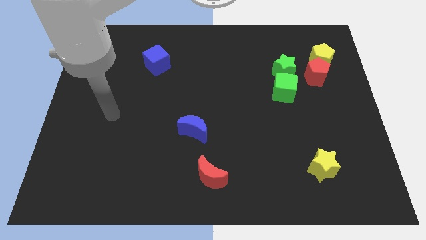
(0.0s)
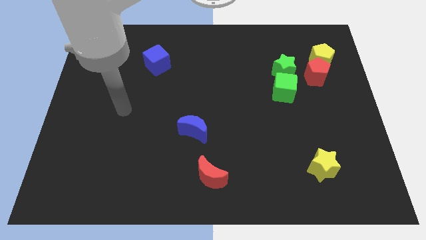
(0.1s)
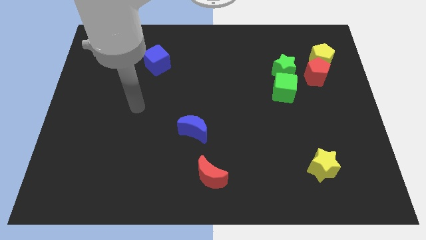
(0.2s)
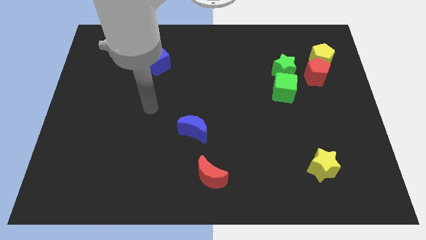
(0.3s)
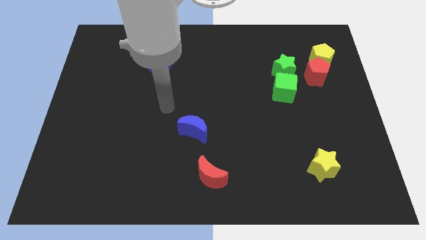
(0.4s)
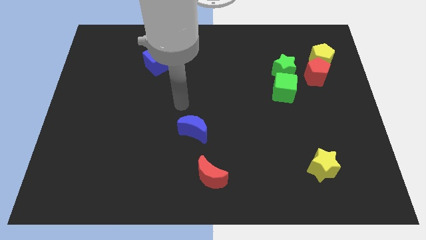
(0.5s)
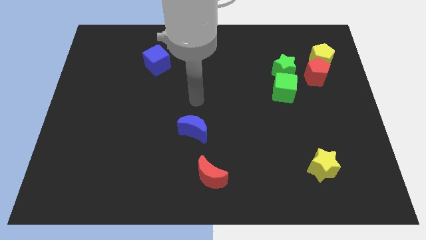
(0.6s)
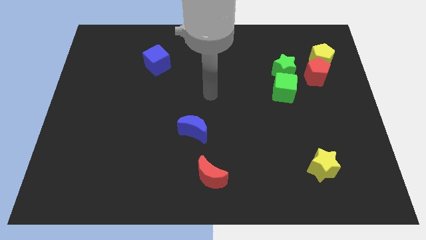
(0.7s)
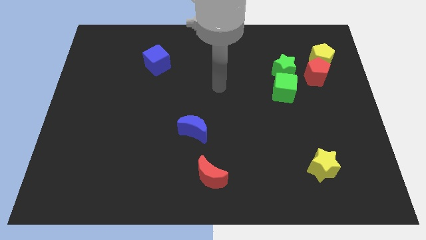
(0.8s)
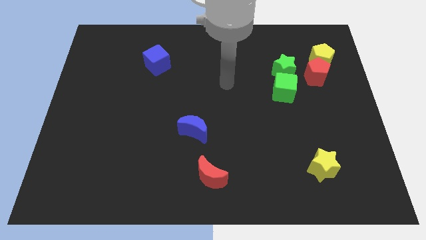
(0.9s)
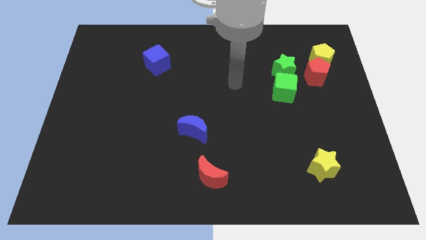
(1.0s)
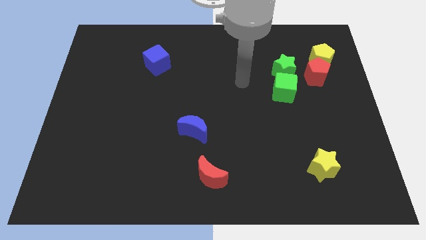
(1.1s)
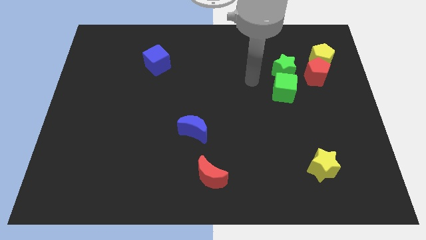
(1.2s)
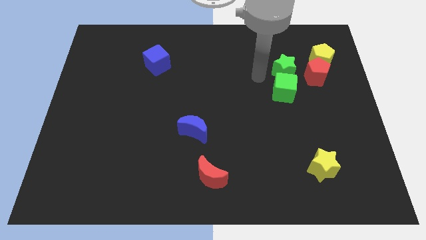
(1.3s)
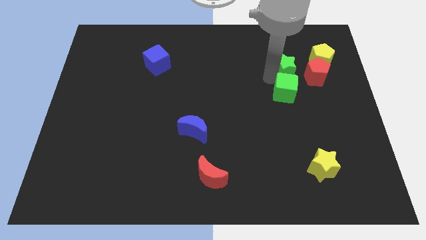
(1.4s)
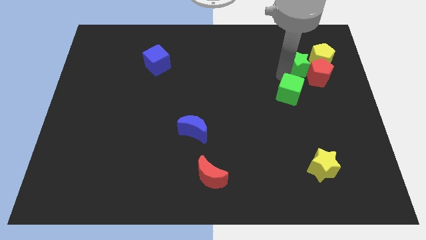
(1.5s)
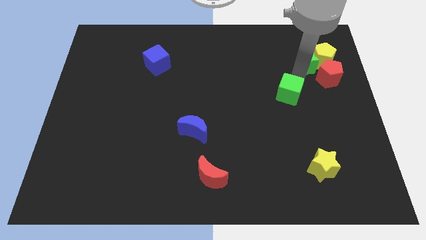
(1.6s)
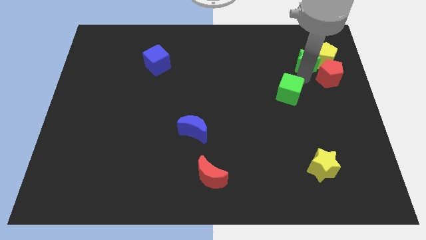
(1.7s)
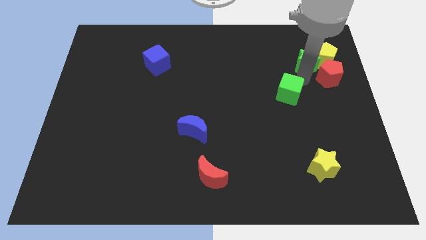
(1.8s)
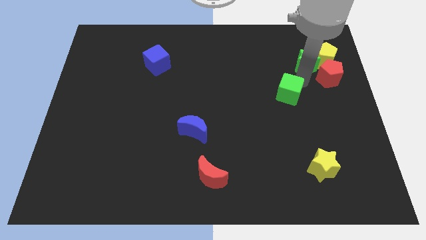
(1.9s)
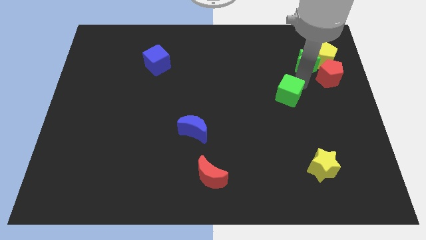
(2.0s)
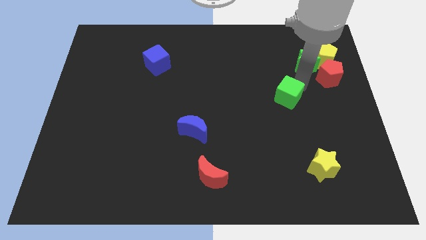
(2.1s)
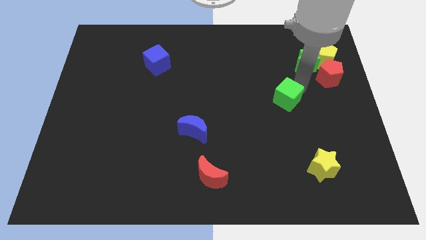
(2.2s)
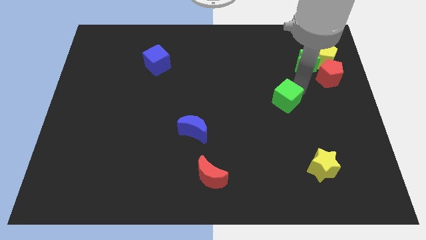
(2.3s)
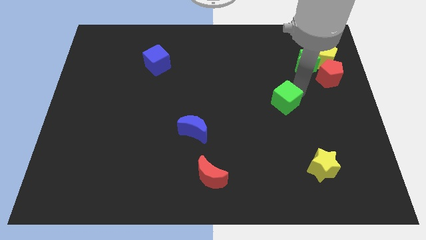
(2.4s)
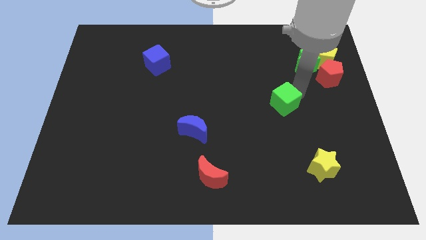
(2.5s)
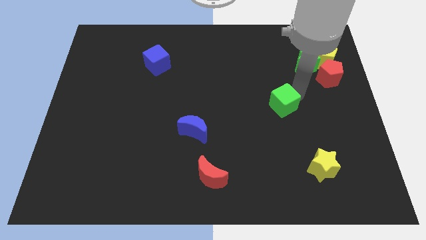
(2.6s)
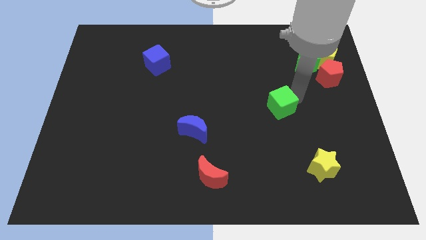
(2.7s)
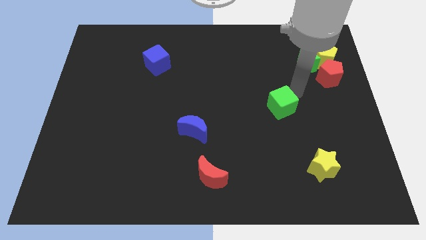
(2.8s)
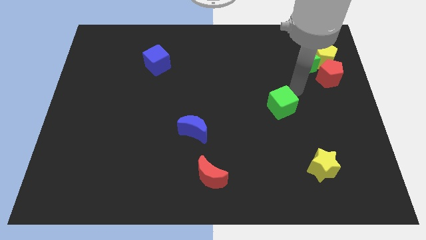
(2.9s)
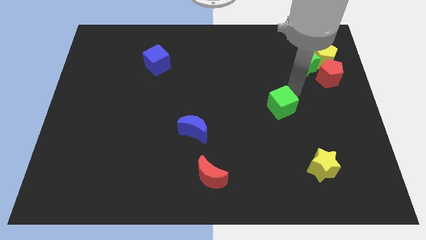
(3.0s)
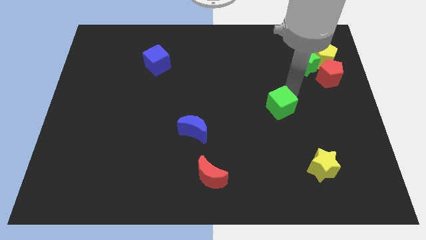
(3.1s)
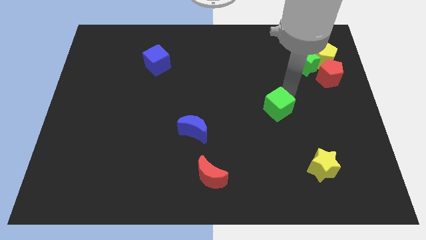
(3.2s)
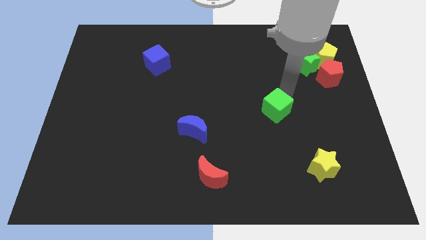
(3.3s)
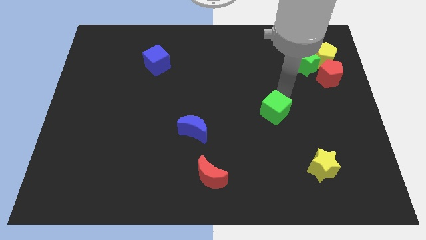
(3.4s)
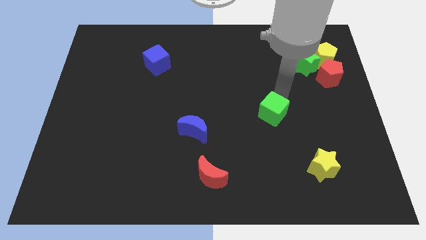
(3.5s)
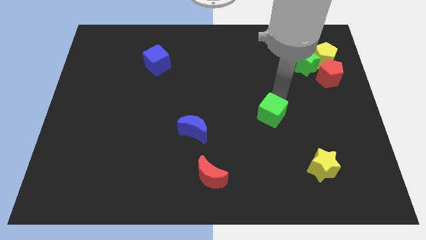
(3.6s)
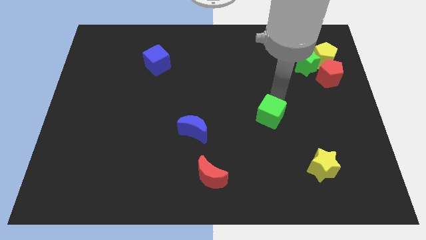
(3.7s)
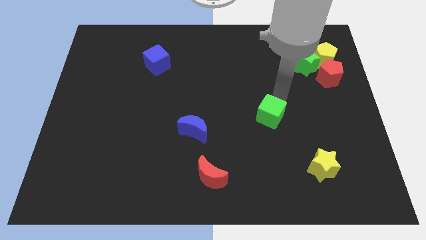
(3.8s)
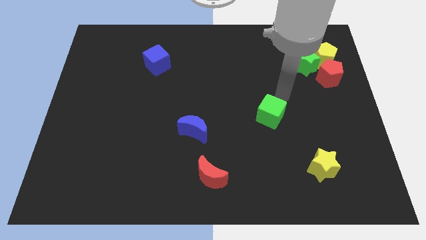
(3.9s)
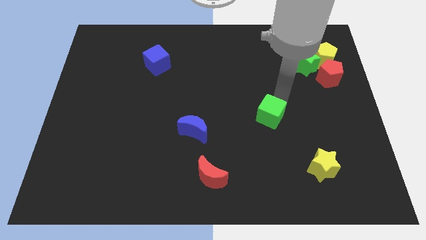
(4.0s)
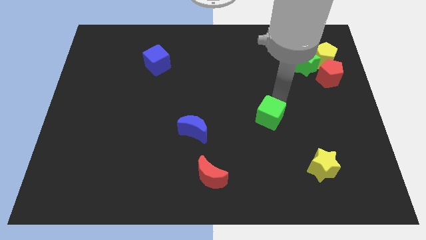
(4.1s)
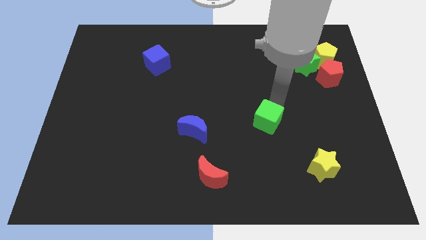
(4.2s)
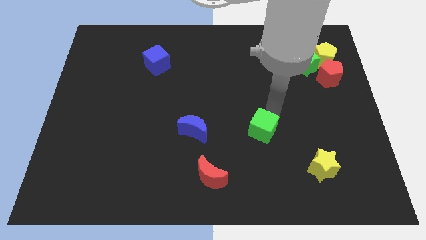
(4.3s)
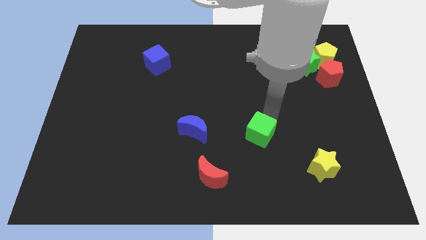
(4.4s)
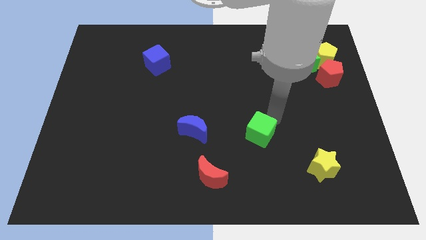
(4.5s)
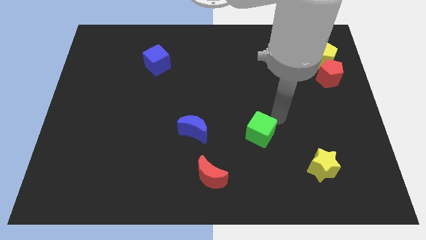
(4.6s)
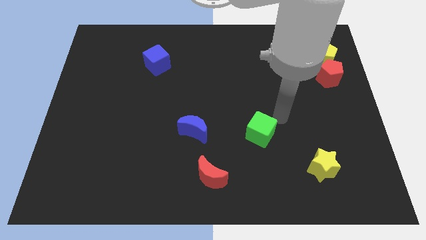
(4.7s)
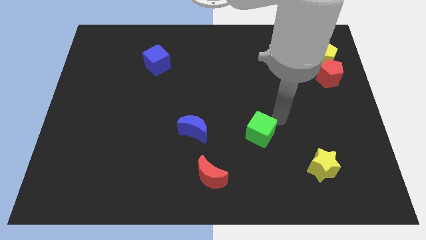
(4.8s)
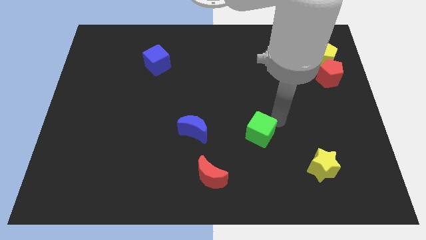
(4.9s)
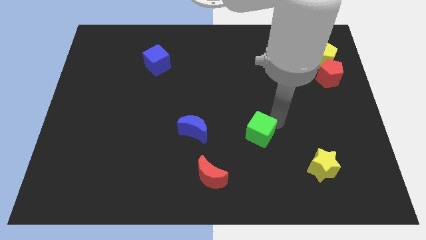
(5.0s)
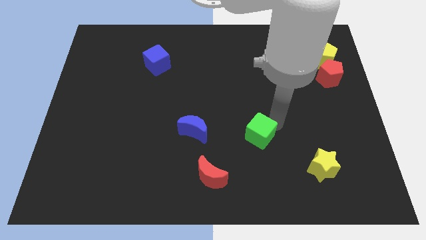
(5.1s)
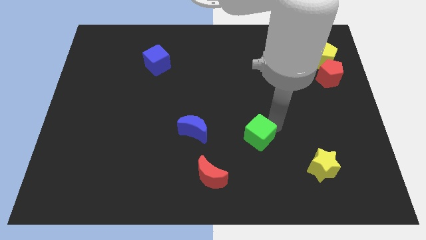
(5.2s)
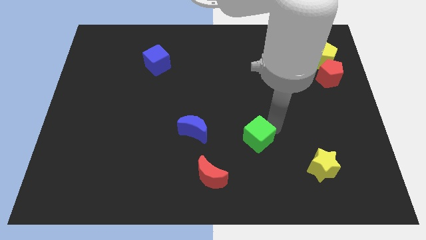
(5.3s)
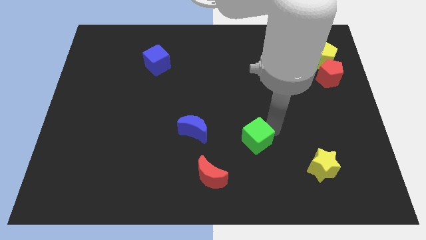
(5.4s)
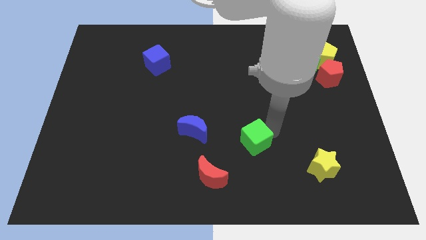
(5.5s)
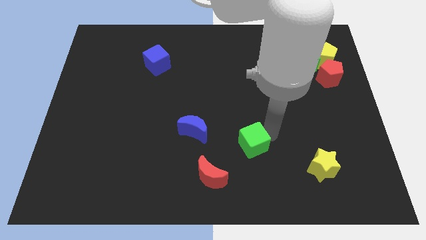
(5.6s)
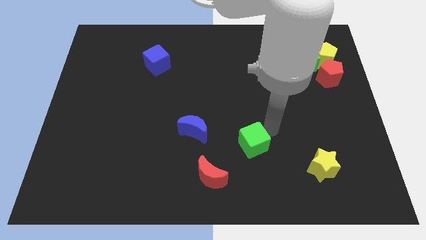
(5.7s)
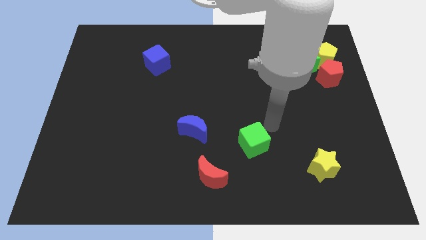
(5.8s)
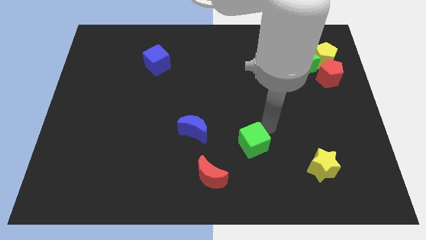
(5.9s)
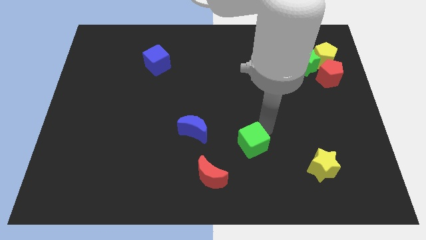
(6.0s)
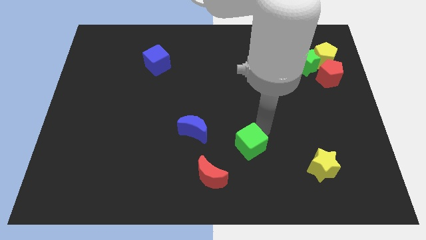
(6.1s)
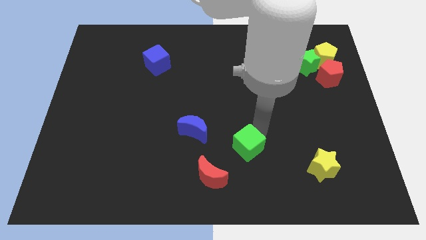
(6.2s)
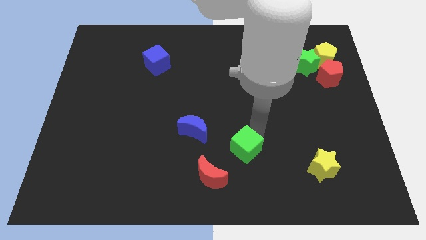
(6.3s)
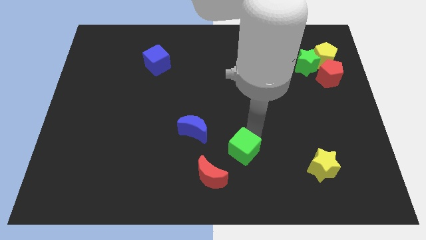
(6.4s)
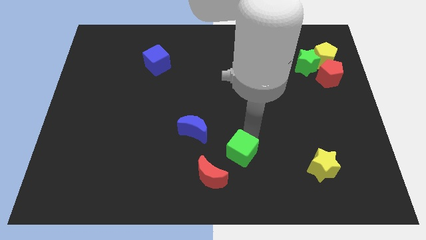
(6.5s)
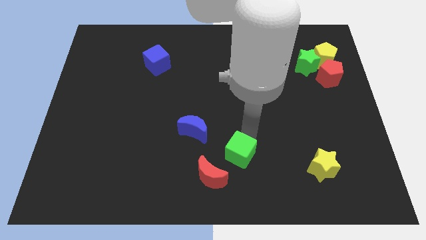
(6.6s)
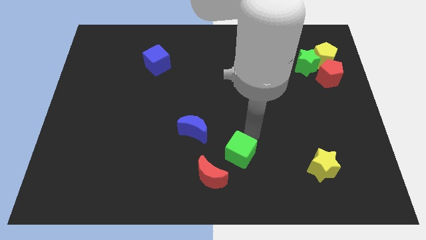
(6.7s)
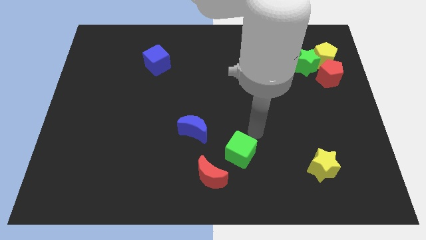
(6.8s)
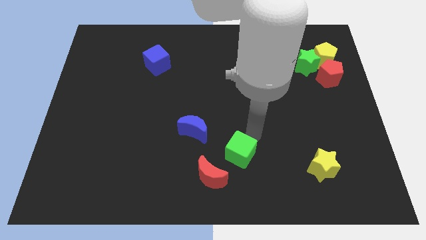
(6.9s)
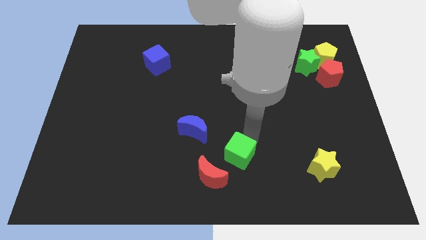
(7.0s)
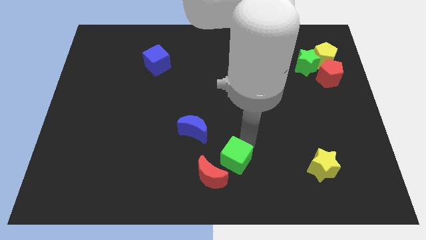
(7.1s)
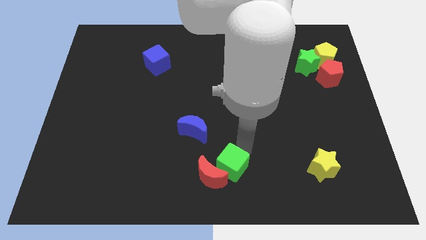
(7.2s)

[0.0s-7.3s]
put the green cube close to the red moon

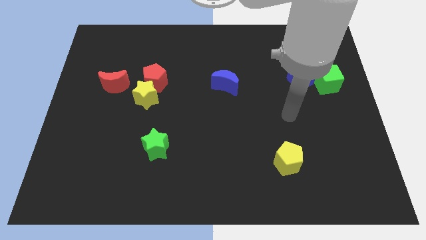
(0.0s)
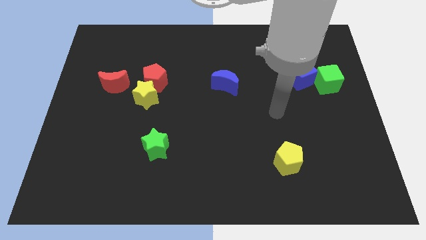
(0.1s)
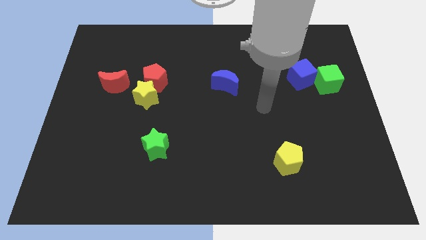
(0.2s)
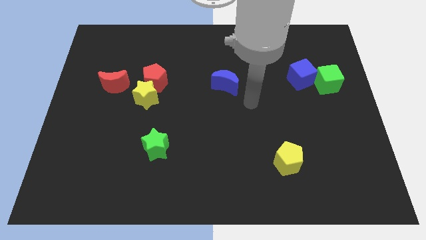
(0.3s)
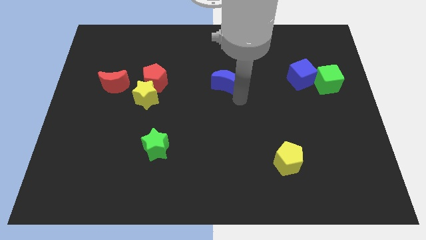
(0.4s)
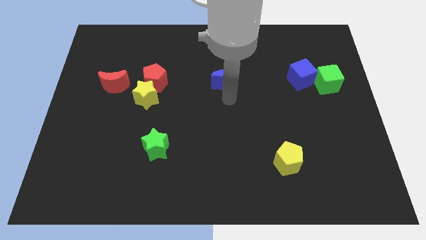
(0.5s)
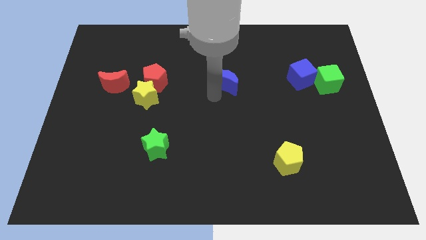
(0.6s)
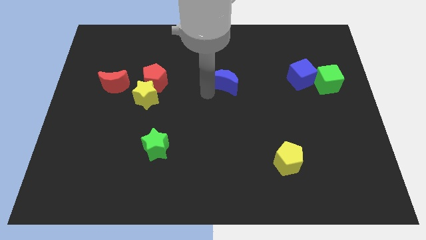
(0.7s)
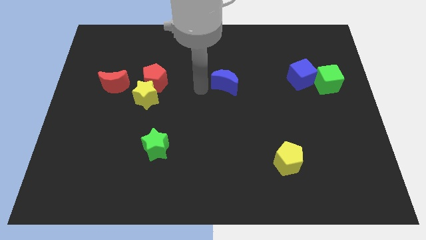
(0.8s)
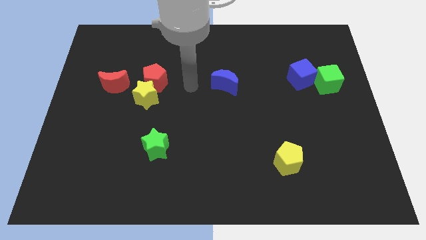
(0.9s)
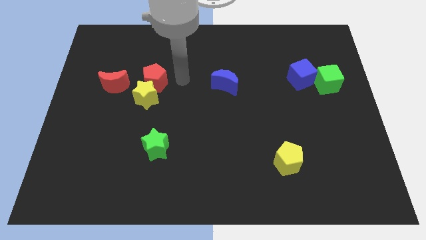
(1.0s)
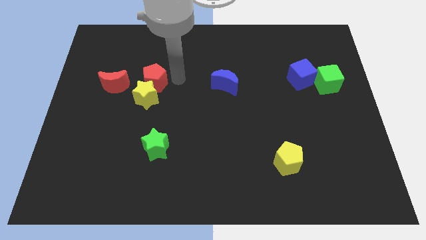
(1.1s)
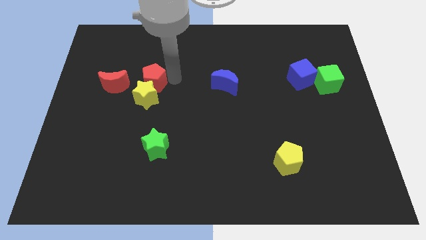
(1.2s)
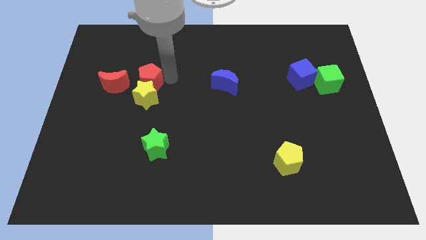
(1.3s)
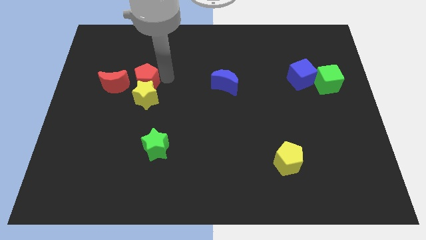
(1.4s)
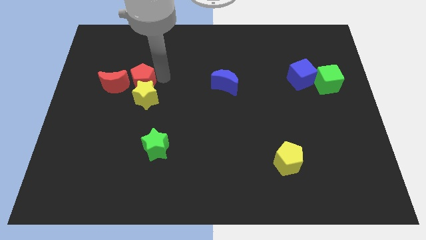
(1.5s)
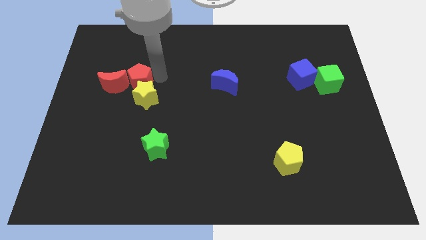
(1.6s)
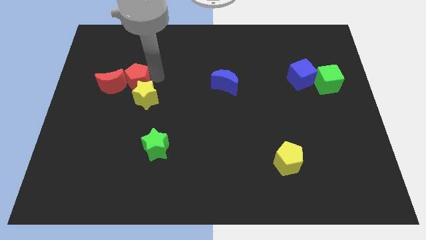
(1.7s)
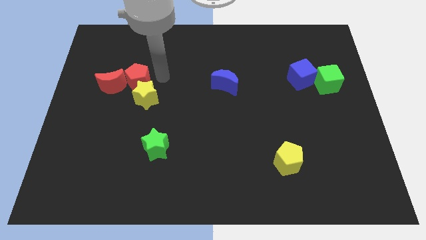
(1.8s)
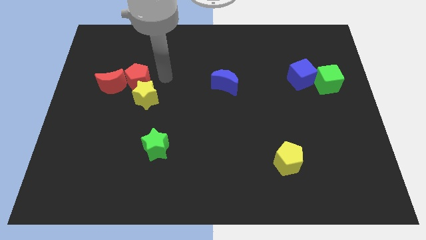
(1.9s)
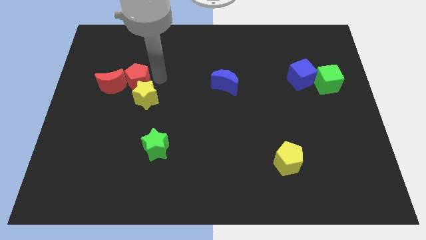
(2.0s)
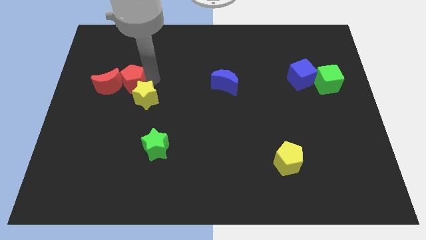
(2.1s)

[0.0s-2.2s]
push the red pentagon close to the red moon
